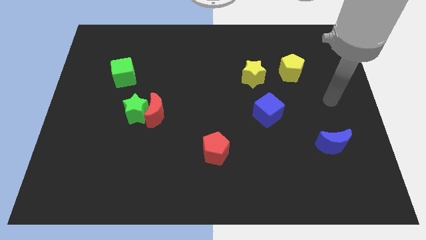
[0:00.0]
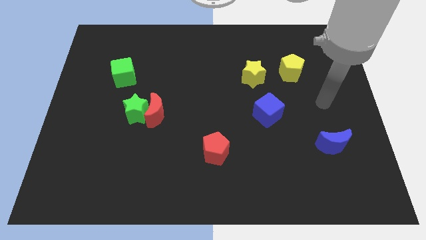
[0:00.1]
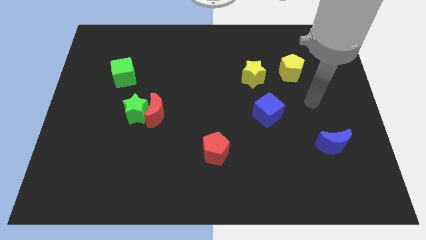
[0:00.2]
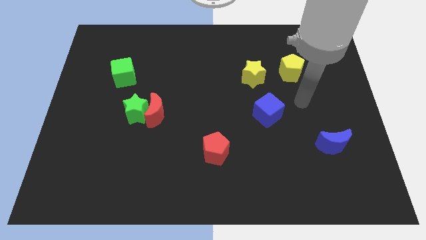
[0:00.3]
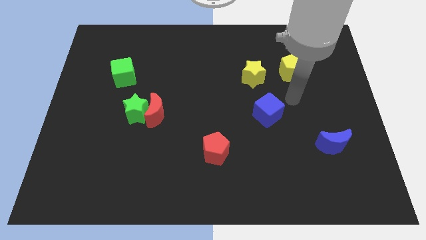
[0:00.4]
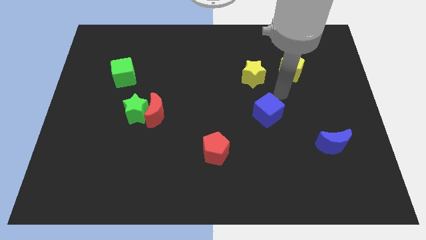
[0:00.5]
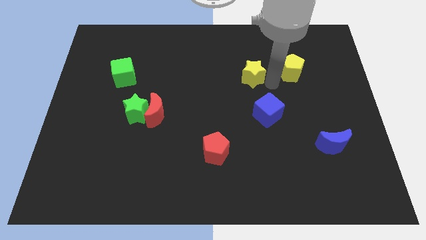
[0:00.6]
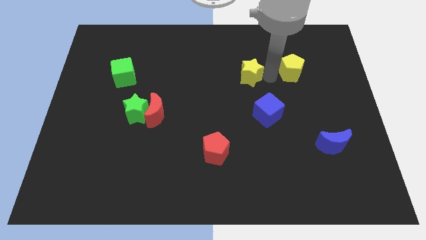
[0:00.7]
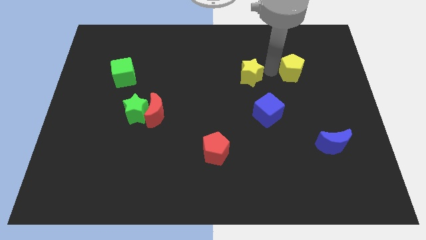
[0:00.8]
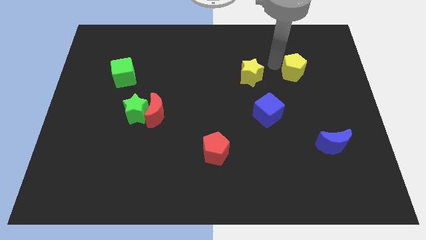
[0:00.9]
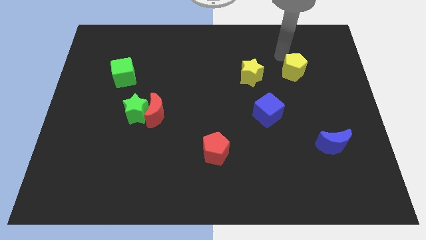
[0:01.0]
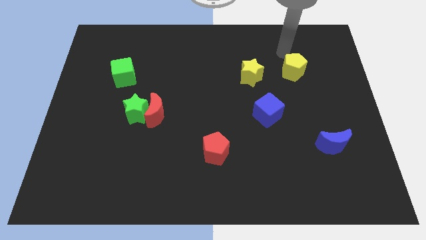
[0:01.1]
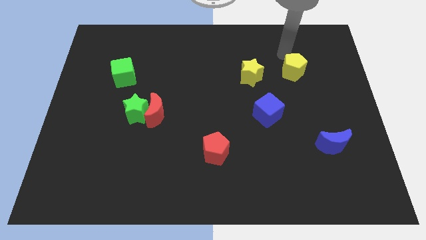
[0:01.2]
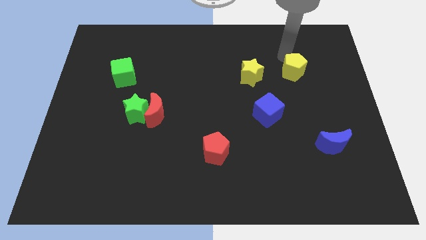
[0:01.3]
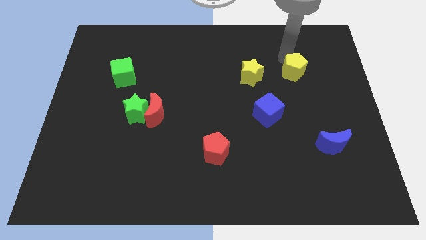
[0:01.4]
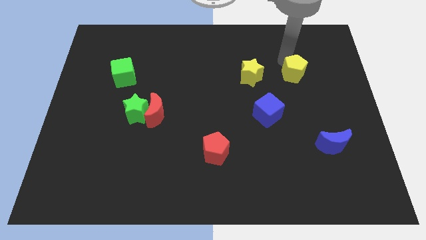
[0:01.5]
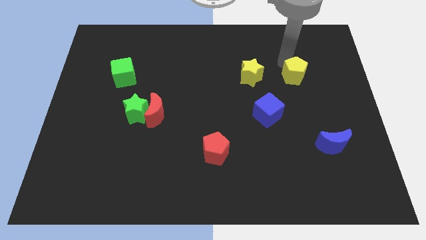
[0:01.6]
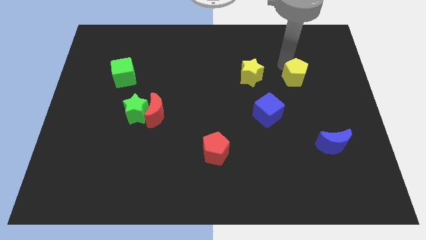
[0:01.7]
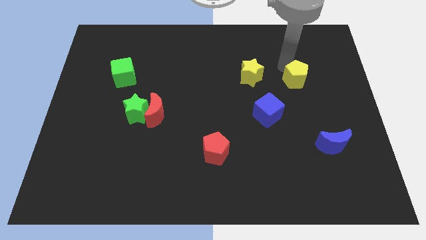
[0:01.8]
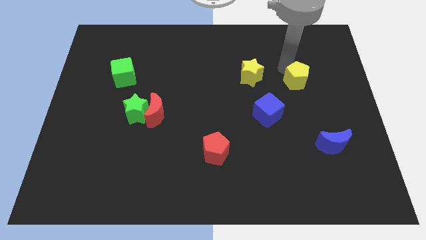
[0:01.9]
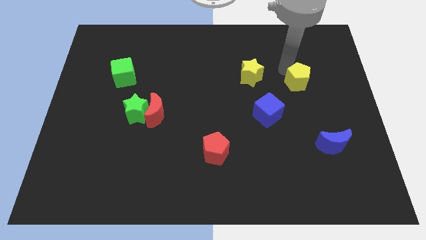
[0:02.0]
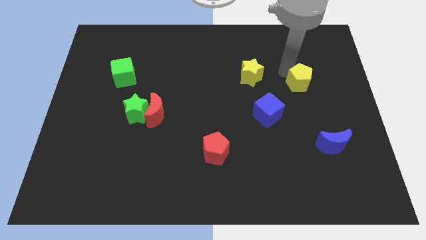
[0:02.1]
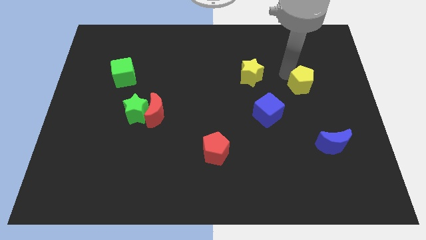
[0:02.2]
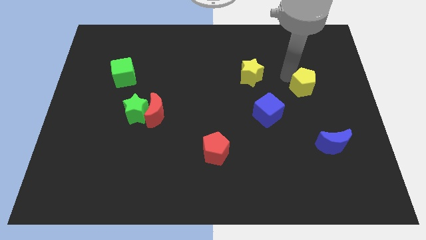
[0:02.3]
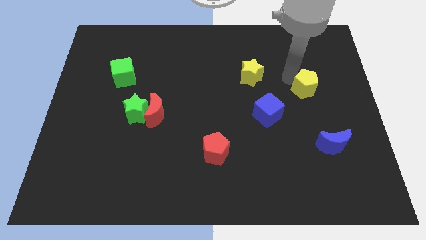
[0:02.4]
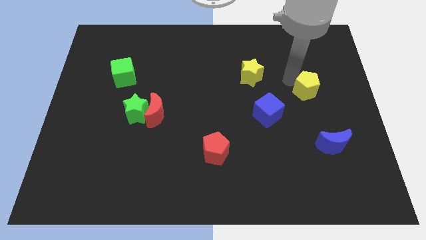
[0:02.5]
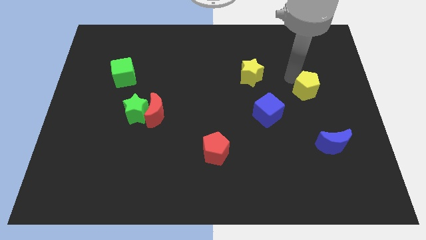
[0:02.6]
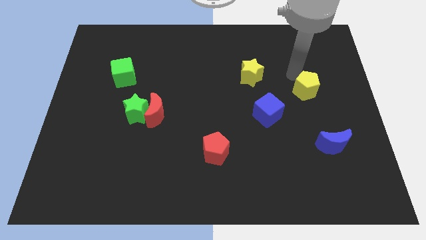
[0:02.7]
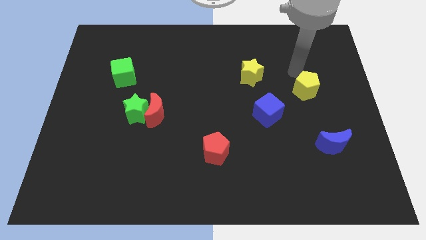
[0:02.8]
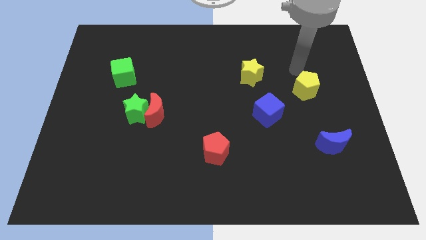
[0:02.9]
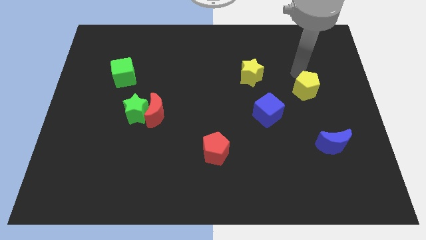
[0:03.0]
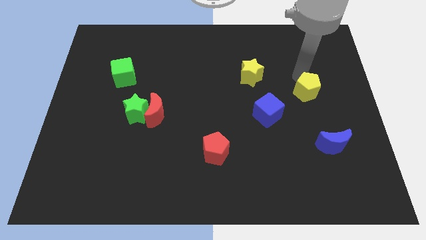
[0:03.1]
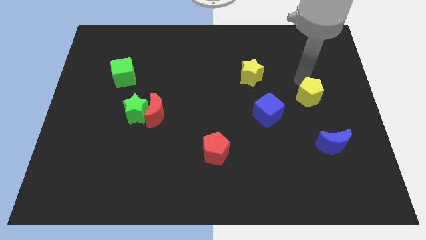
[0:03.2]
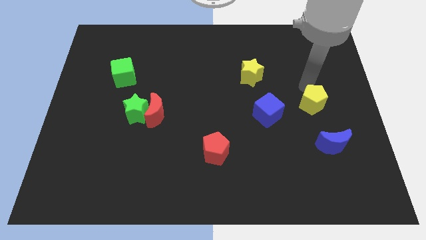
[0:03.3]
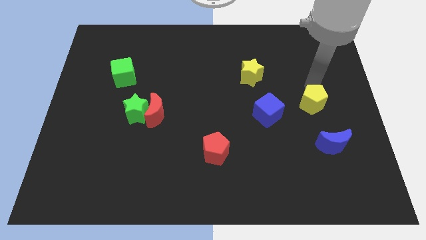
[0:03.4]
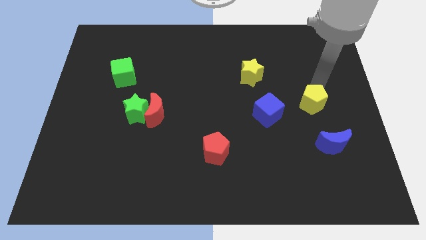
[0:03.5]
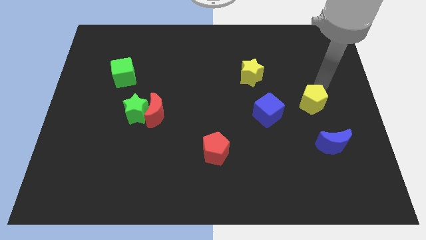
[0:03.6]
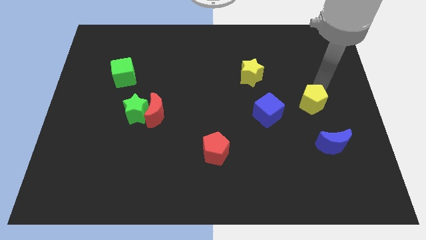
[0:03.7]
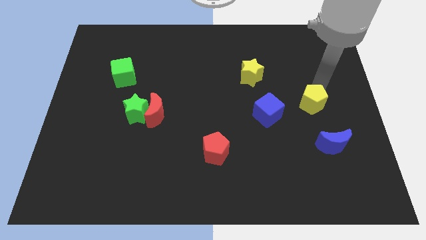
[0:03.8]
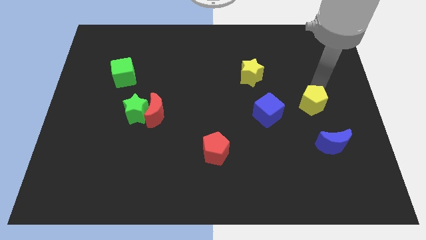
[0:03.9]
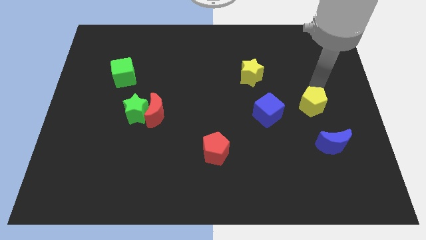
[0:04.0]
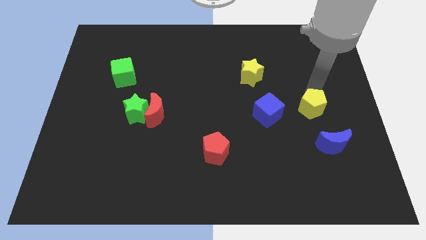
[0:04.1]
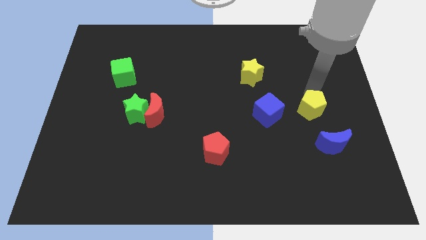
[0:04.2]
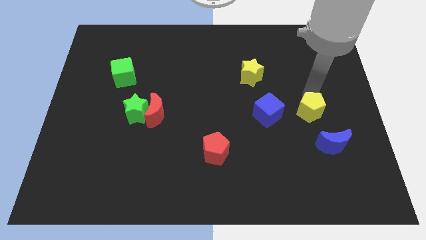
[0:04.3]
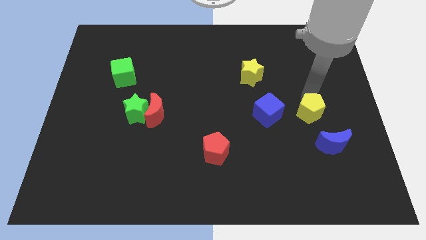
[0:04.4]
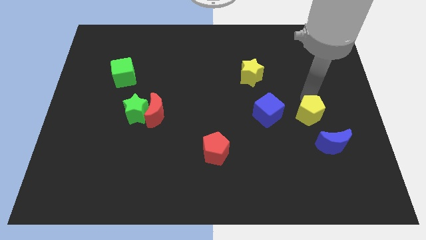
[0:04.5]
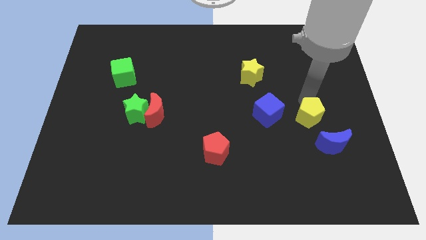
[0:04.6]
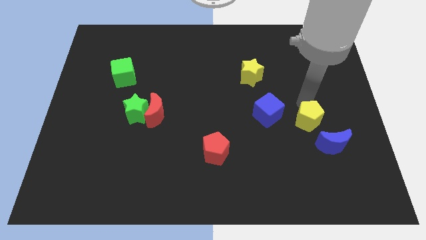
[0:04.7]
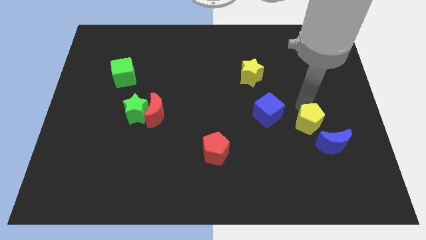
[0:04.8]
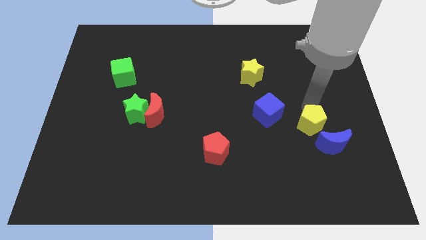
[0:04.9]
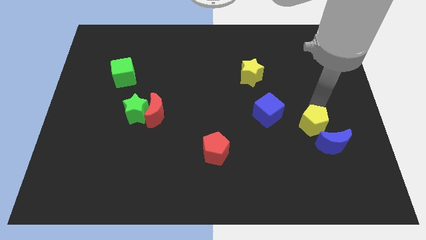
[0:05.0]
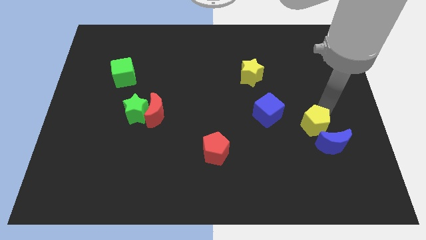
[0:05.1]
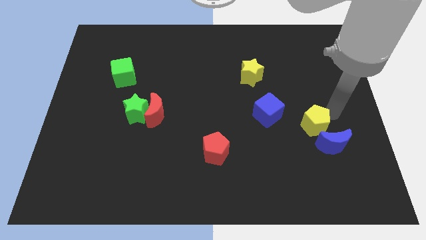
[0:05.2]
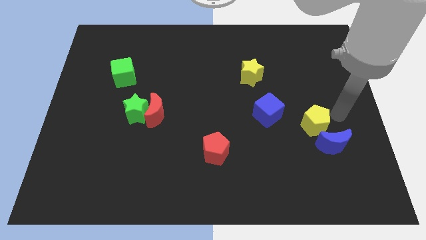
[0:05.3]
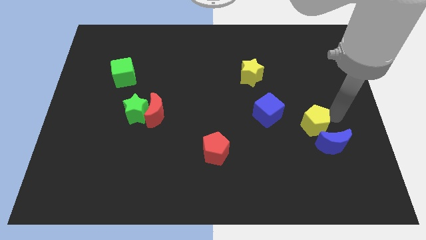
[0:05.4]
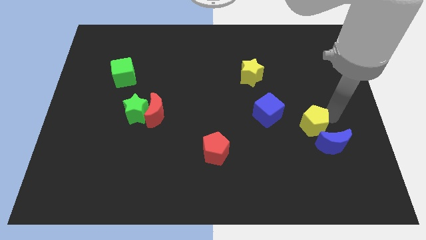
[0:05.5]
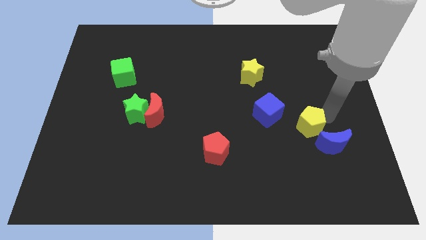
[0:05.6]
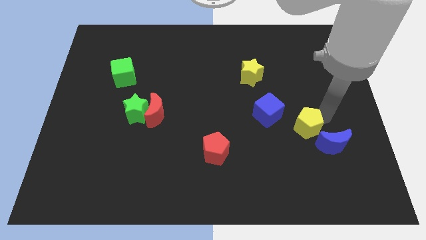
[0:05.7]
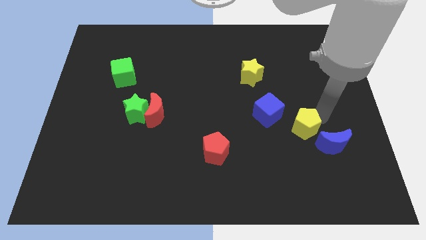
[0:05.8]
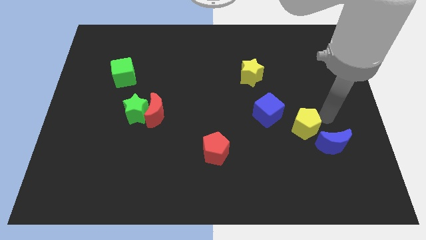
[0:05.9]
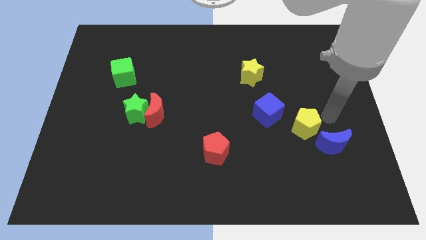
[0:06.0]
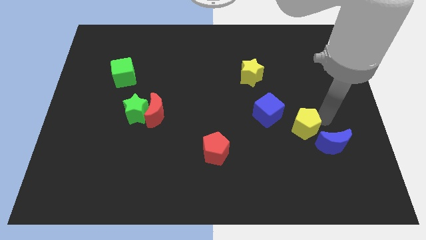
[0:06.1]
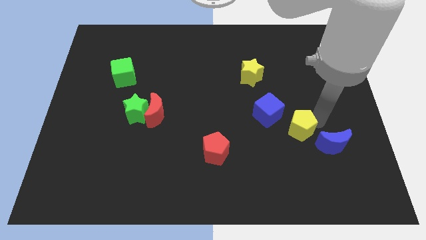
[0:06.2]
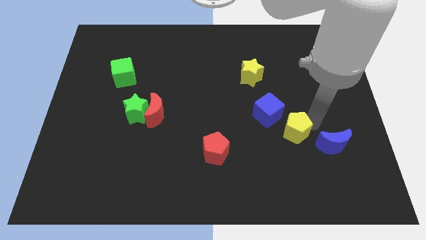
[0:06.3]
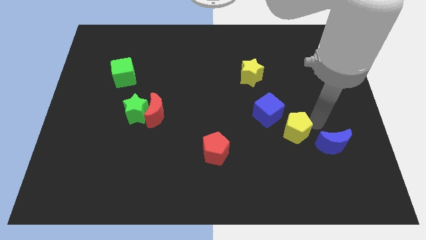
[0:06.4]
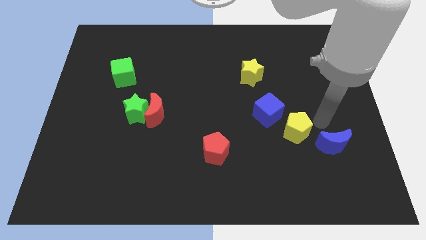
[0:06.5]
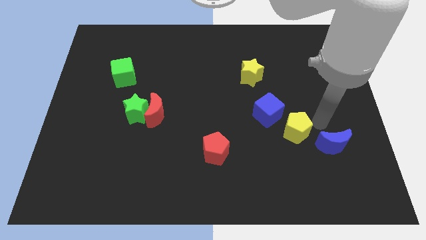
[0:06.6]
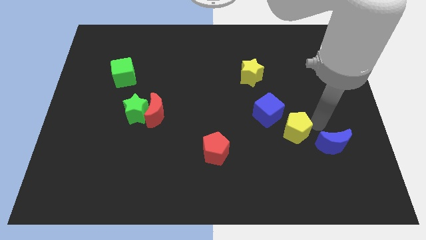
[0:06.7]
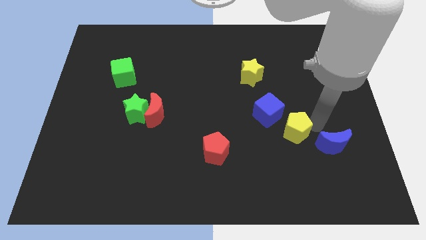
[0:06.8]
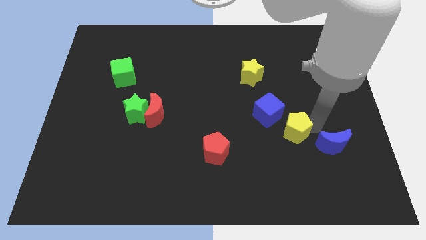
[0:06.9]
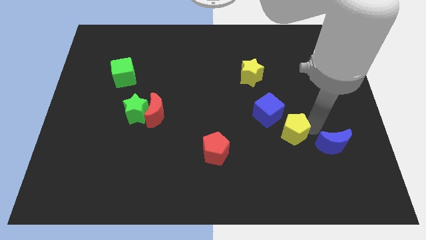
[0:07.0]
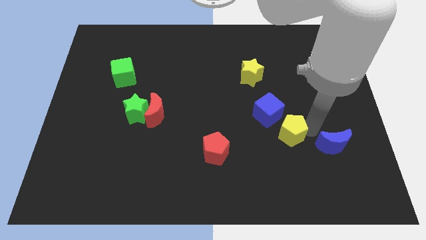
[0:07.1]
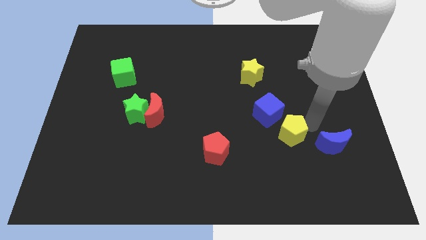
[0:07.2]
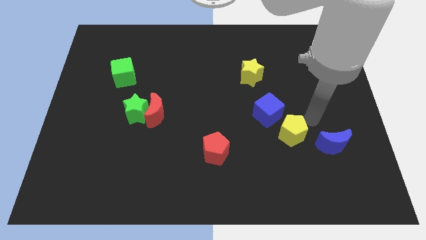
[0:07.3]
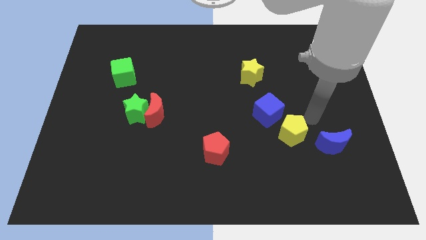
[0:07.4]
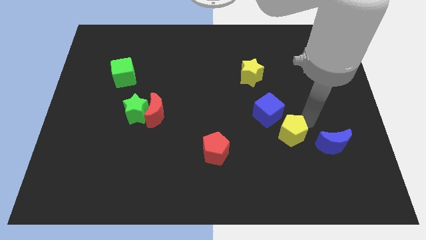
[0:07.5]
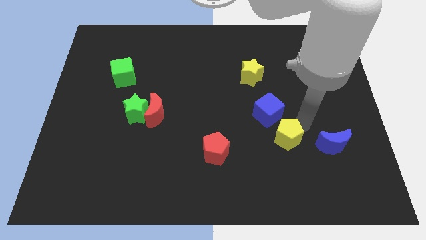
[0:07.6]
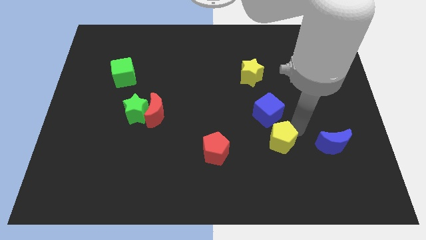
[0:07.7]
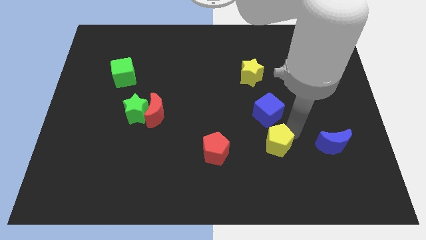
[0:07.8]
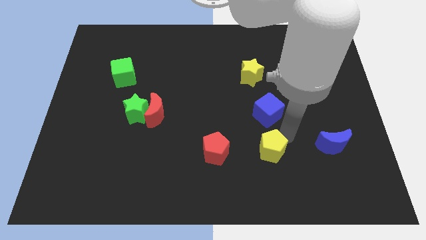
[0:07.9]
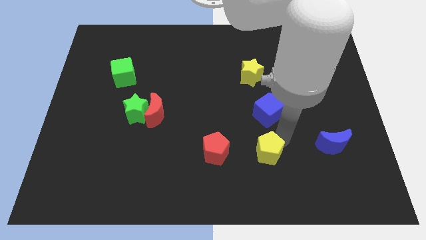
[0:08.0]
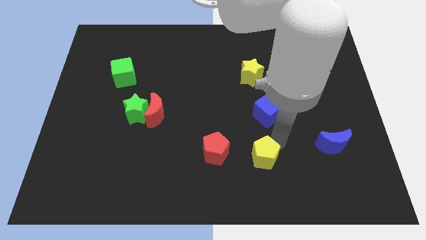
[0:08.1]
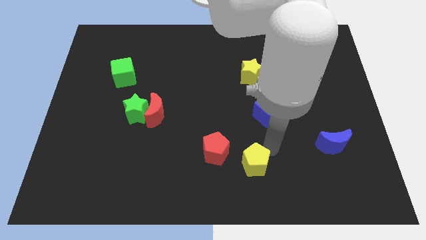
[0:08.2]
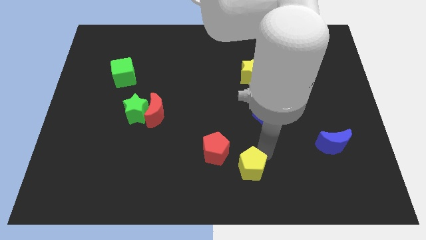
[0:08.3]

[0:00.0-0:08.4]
push the yellow pentagon to the bottom
